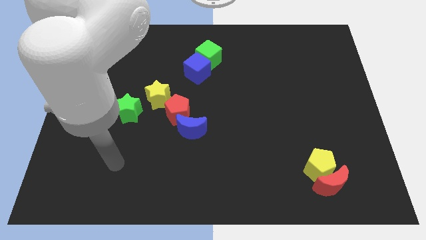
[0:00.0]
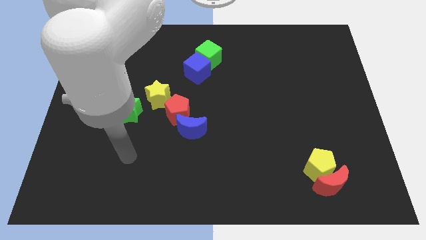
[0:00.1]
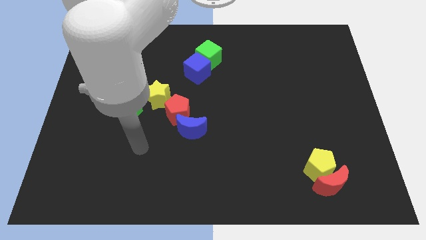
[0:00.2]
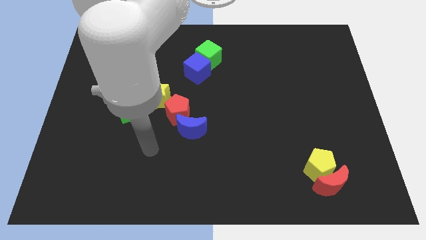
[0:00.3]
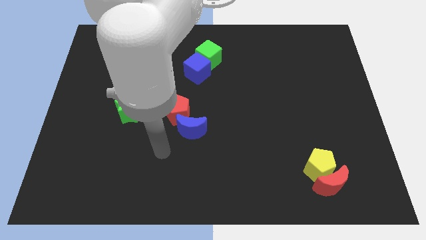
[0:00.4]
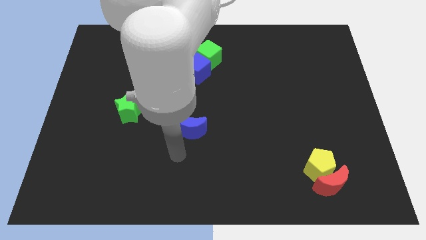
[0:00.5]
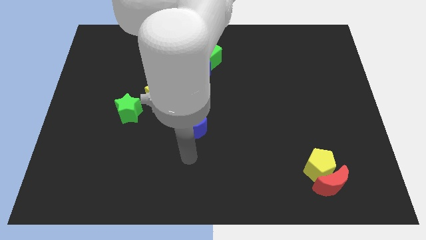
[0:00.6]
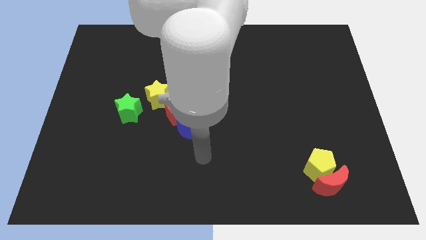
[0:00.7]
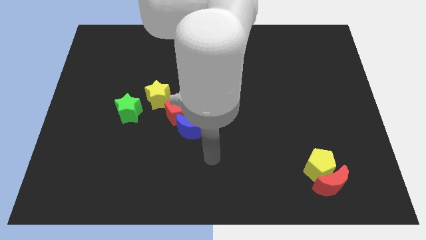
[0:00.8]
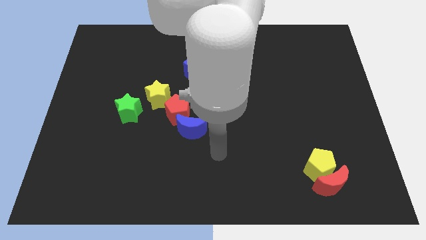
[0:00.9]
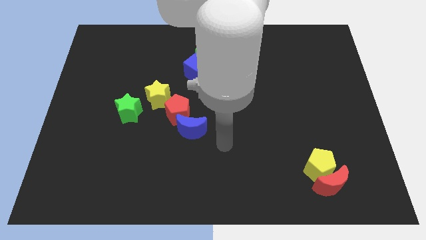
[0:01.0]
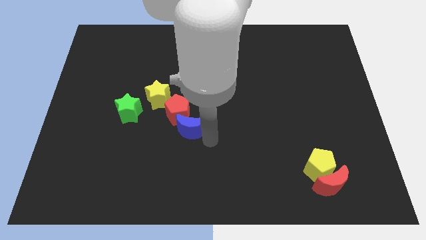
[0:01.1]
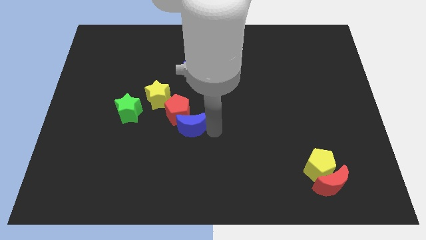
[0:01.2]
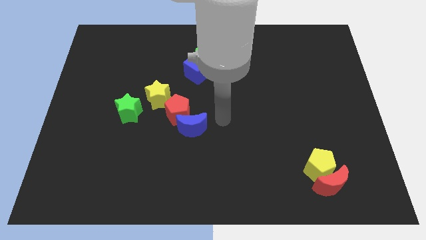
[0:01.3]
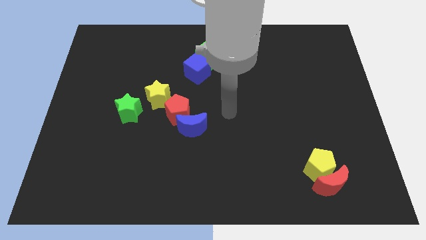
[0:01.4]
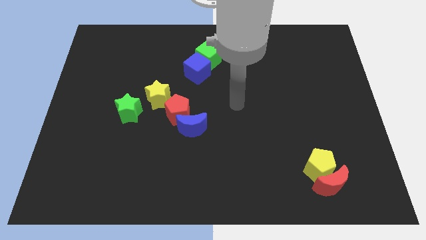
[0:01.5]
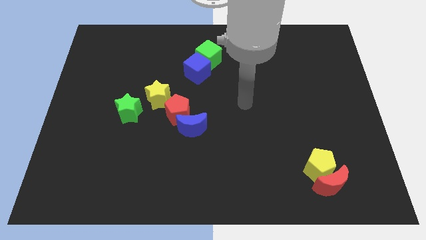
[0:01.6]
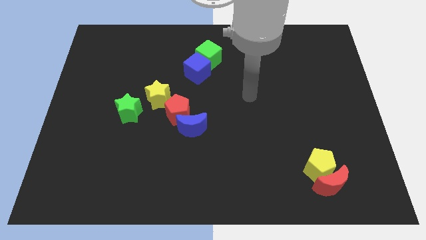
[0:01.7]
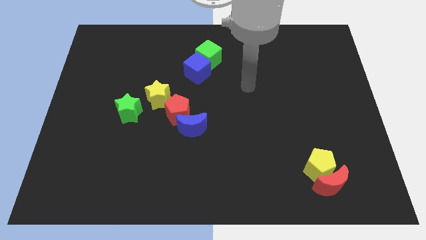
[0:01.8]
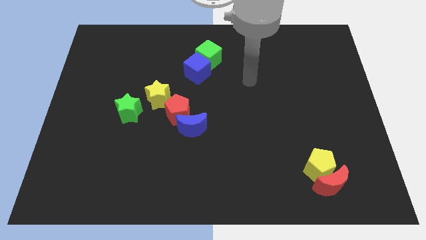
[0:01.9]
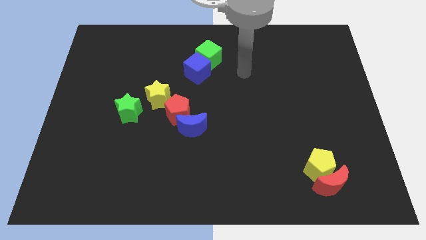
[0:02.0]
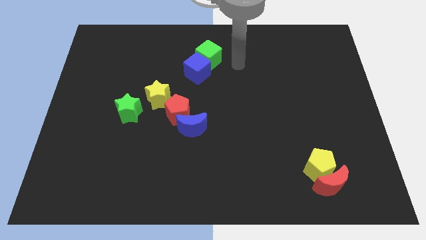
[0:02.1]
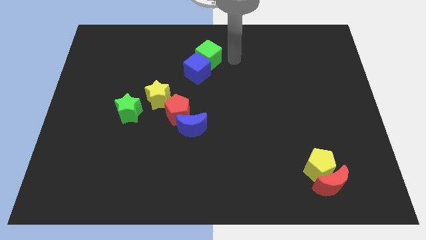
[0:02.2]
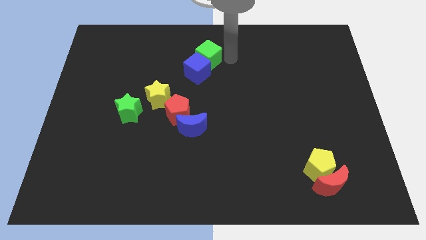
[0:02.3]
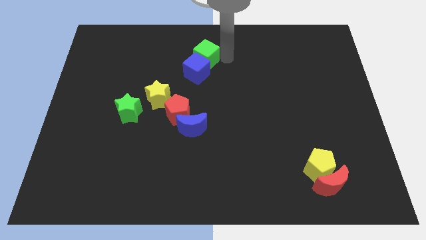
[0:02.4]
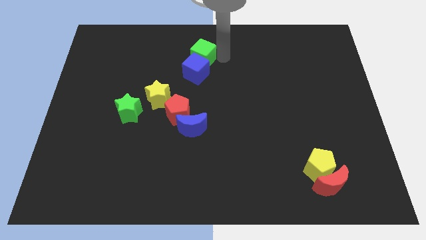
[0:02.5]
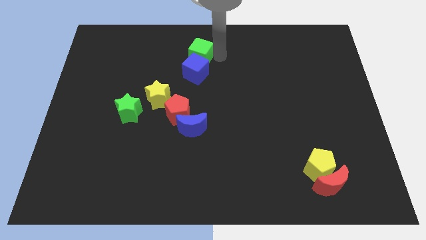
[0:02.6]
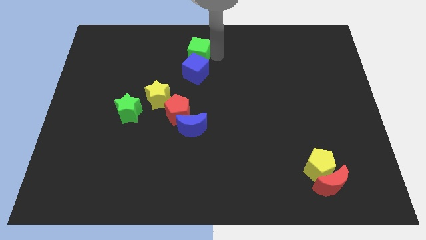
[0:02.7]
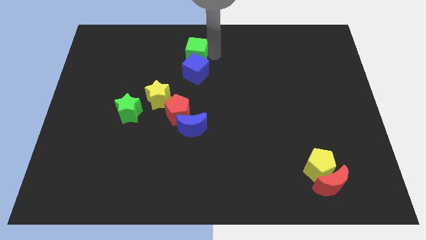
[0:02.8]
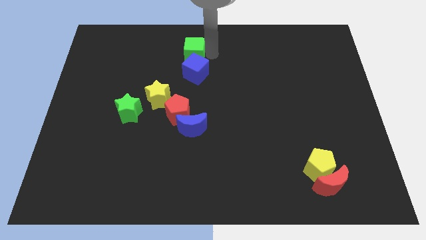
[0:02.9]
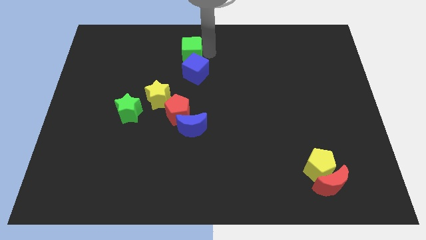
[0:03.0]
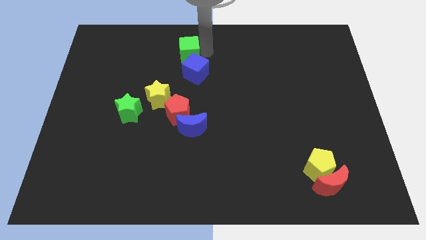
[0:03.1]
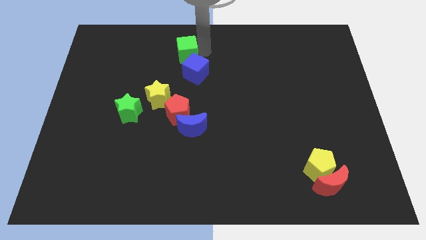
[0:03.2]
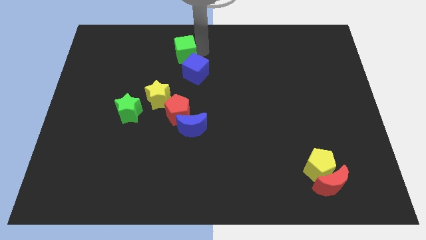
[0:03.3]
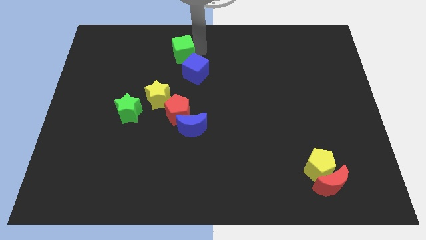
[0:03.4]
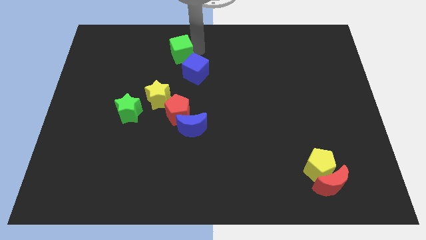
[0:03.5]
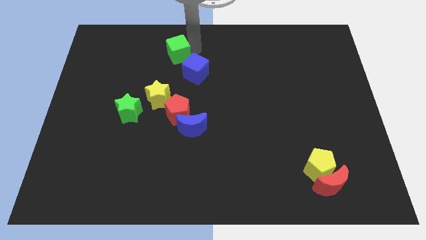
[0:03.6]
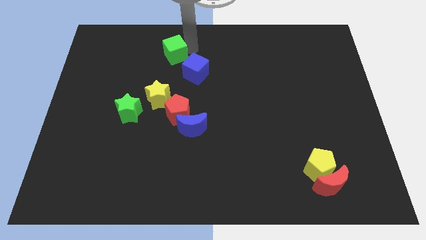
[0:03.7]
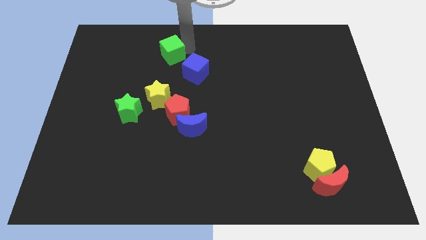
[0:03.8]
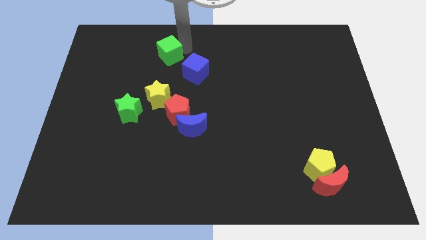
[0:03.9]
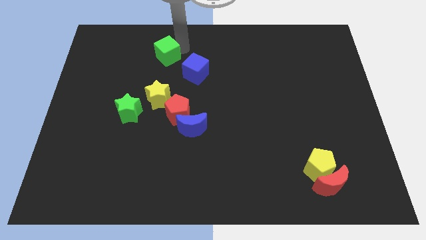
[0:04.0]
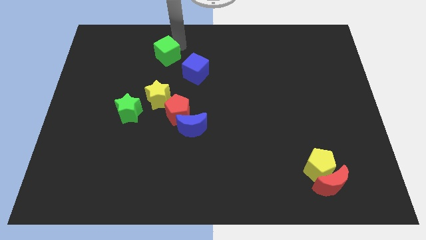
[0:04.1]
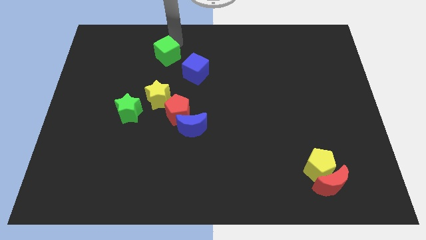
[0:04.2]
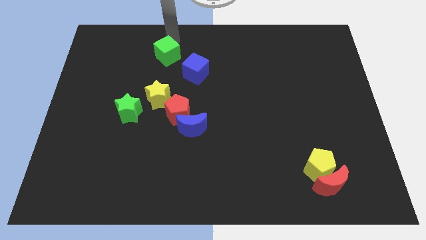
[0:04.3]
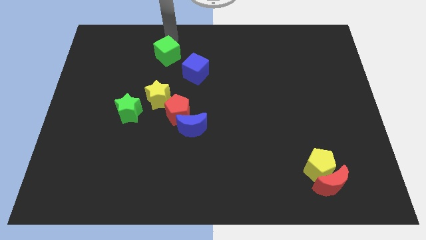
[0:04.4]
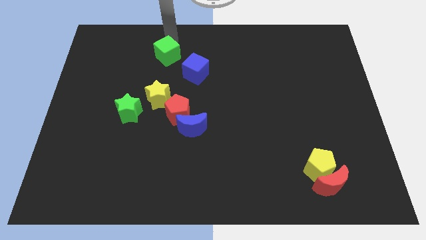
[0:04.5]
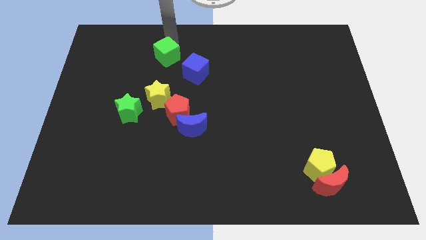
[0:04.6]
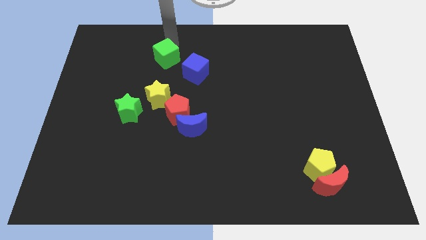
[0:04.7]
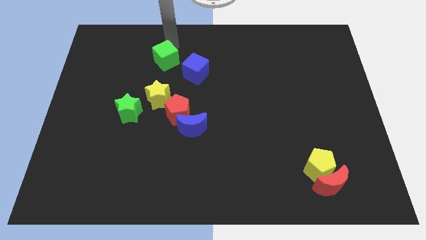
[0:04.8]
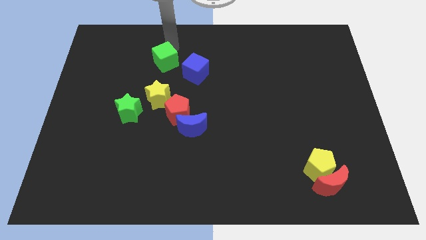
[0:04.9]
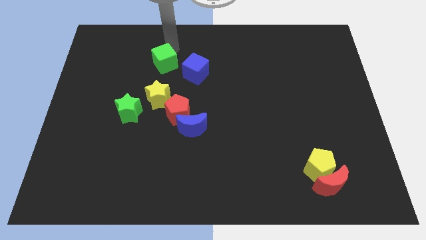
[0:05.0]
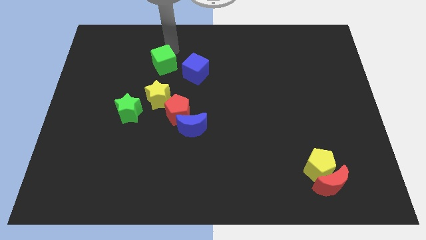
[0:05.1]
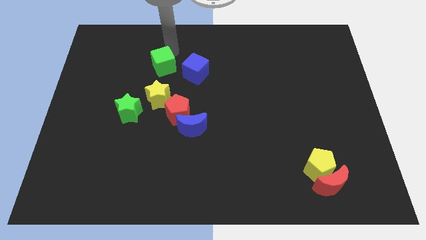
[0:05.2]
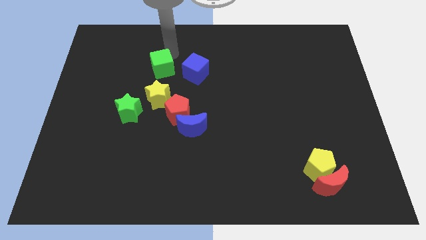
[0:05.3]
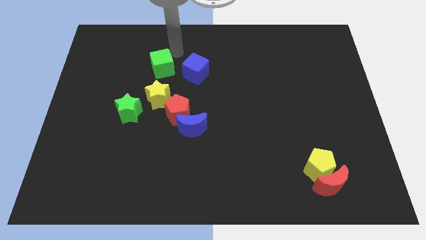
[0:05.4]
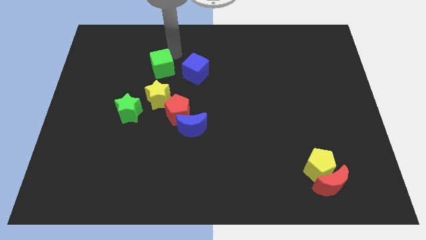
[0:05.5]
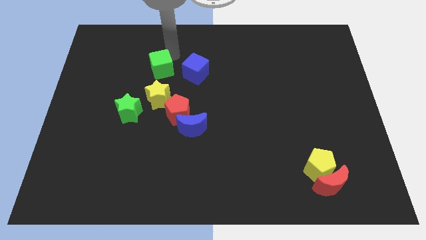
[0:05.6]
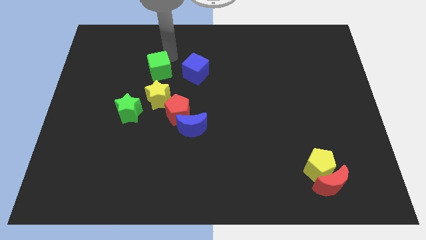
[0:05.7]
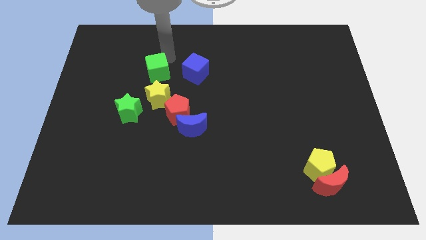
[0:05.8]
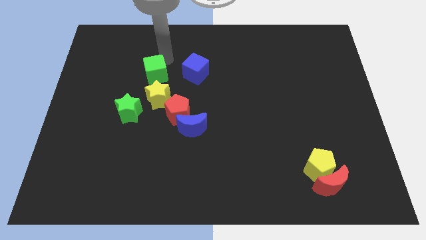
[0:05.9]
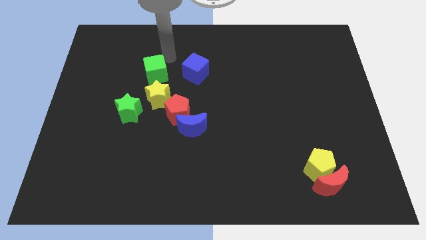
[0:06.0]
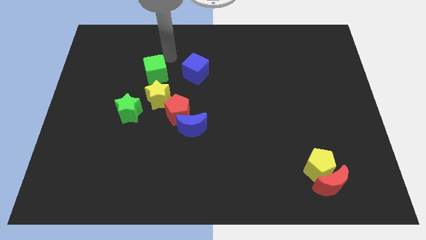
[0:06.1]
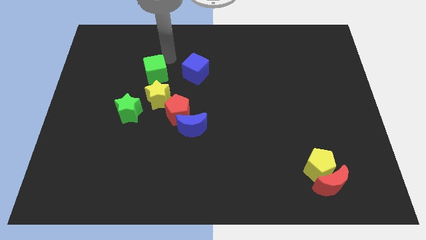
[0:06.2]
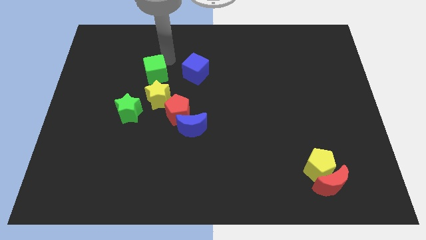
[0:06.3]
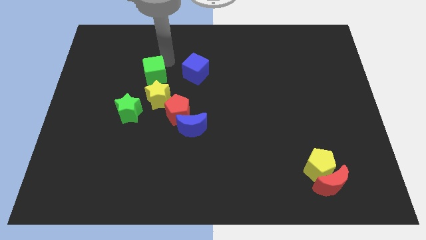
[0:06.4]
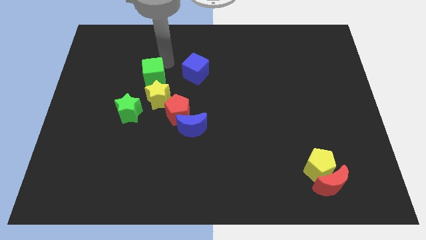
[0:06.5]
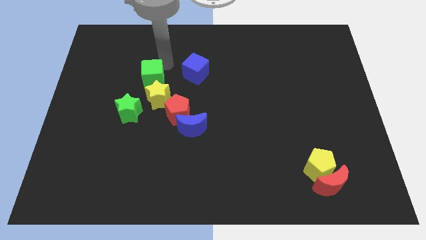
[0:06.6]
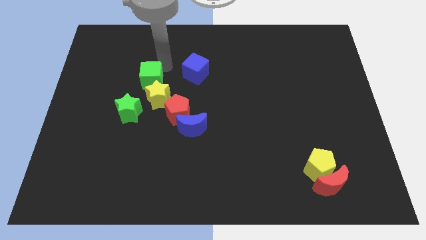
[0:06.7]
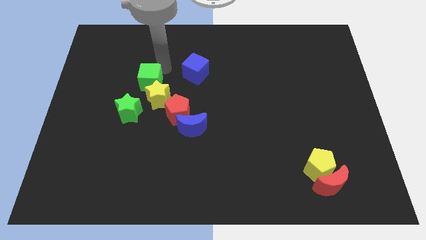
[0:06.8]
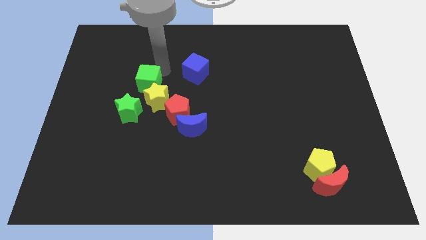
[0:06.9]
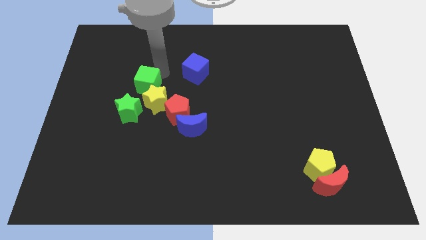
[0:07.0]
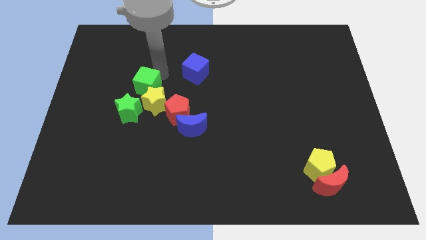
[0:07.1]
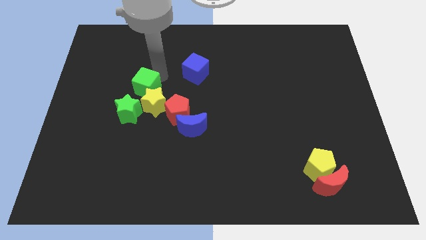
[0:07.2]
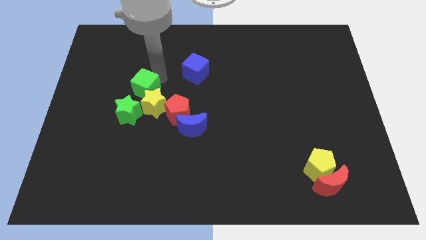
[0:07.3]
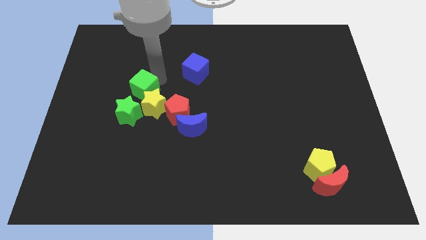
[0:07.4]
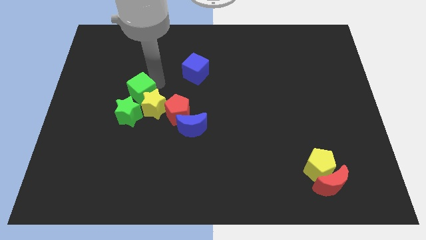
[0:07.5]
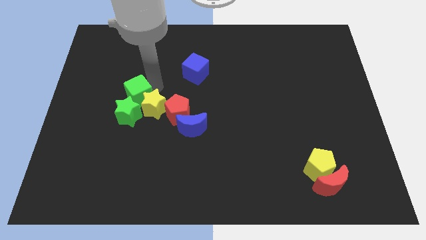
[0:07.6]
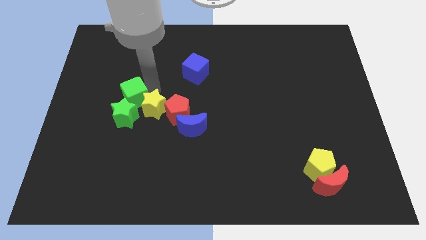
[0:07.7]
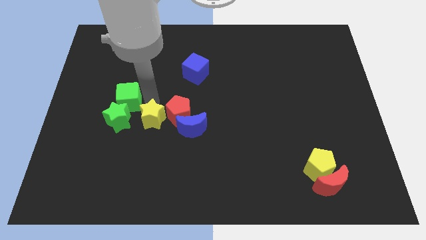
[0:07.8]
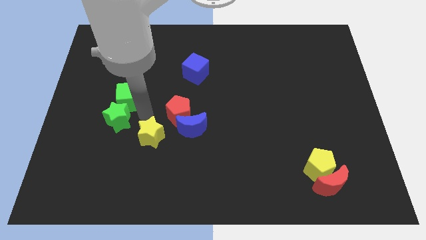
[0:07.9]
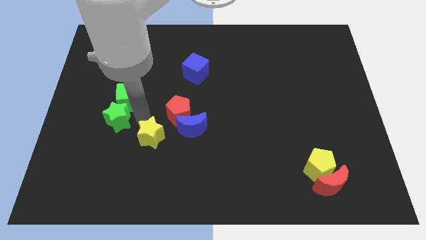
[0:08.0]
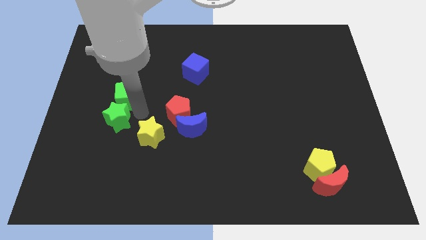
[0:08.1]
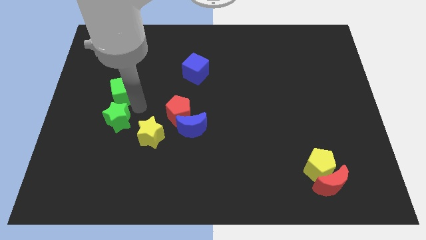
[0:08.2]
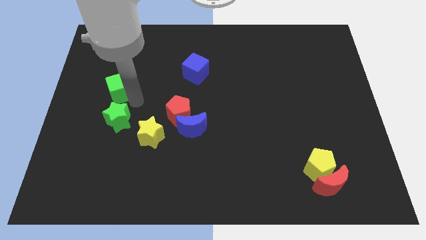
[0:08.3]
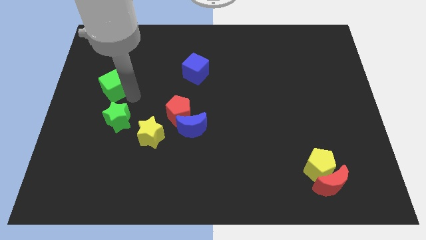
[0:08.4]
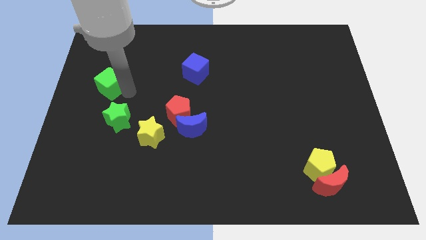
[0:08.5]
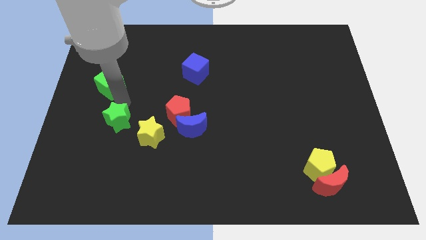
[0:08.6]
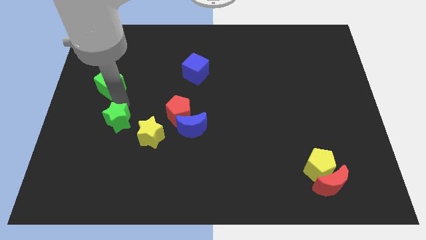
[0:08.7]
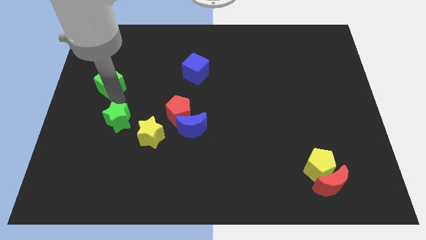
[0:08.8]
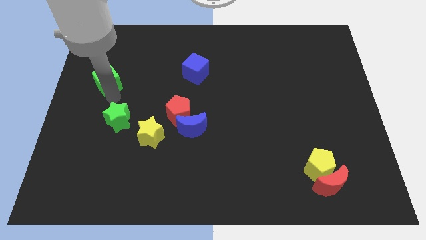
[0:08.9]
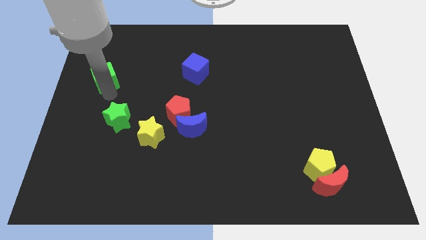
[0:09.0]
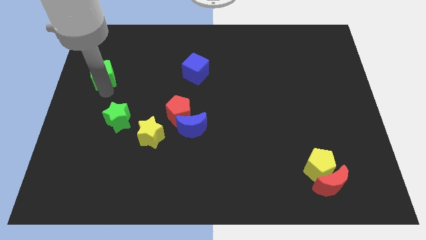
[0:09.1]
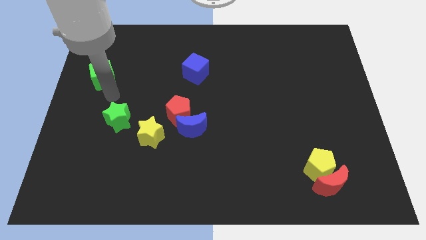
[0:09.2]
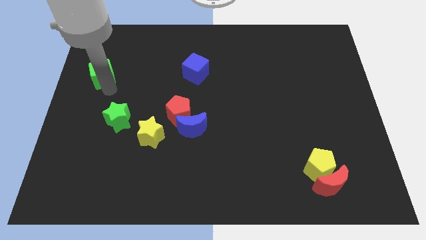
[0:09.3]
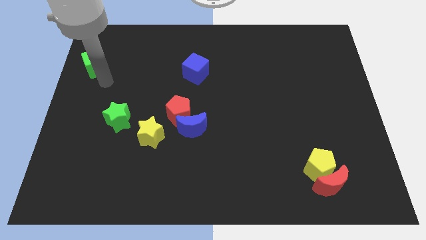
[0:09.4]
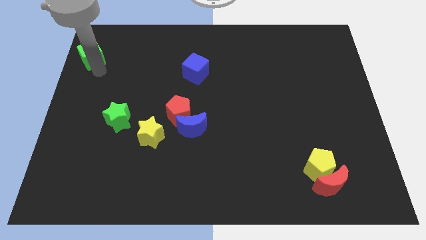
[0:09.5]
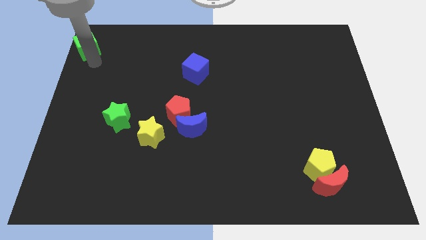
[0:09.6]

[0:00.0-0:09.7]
push the green cube to the top left corner
